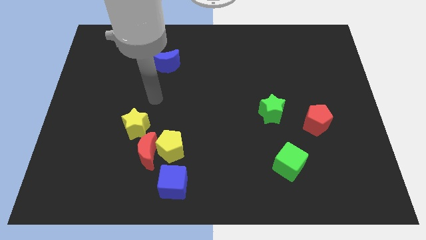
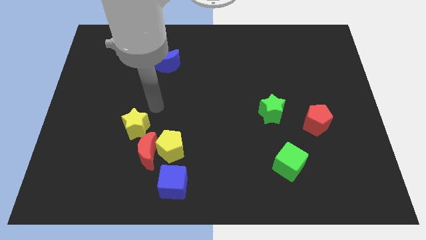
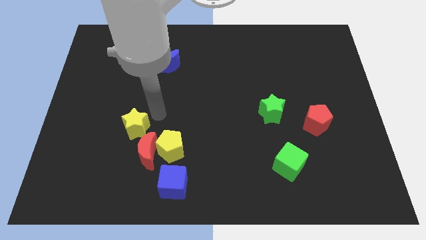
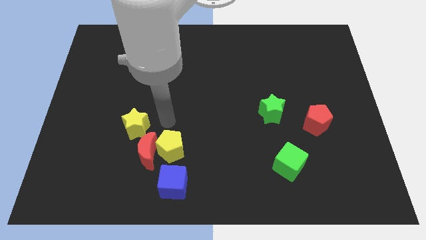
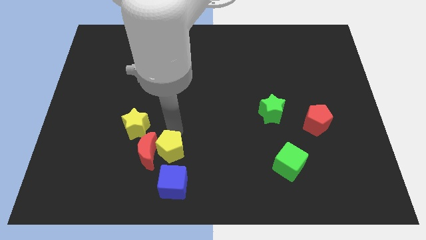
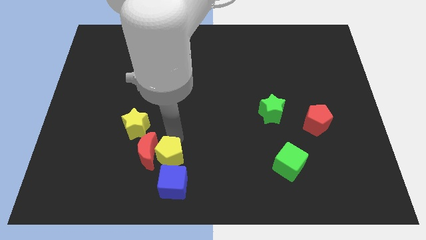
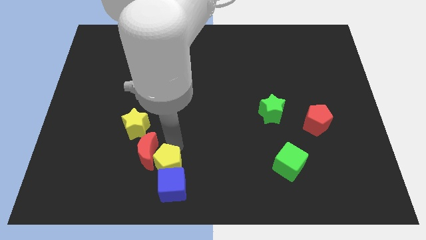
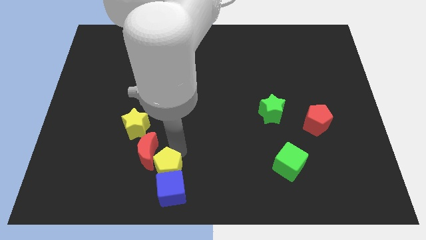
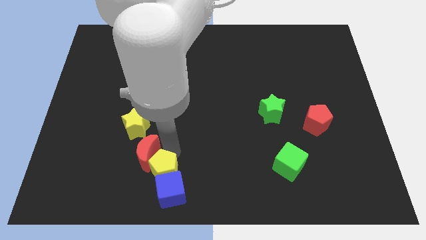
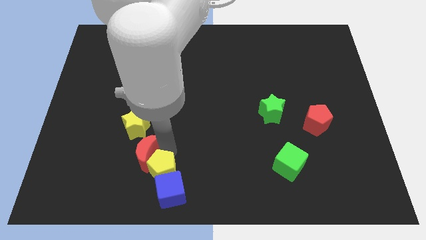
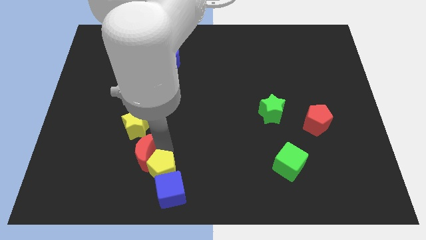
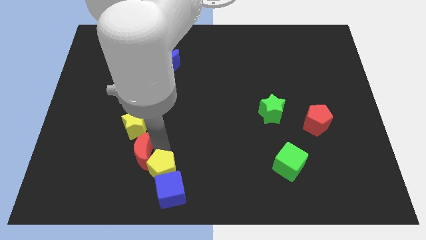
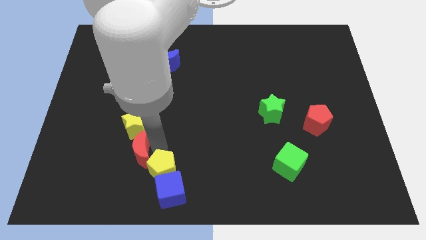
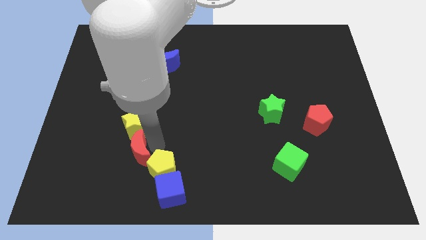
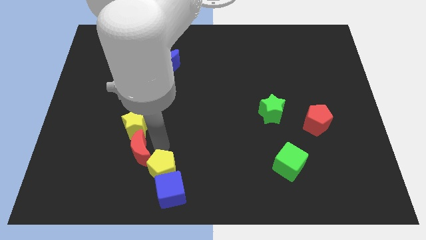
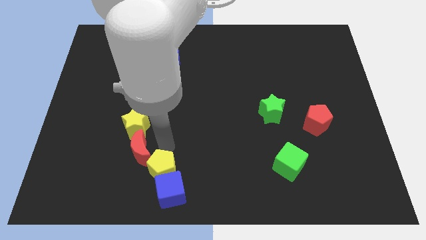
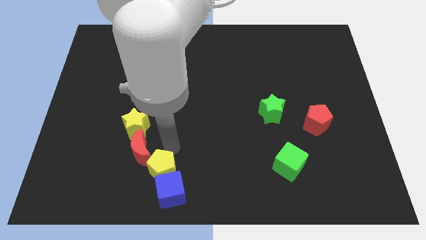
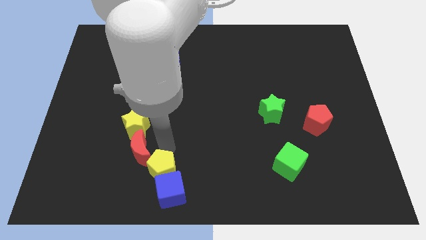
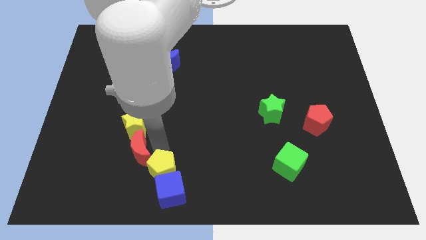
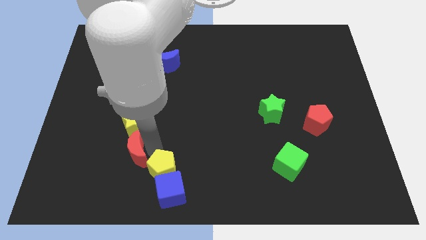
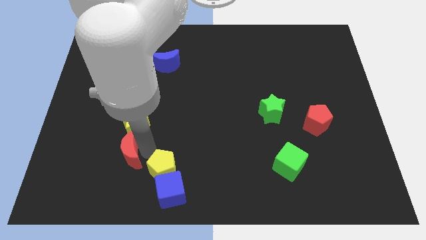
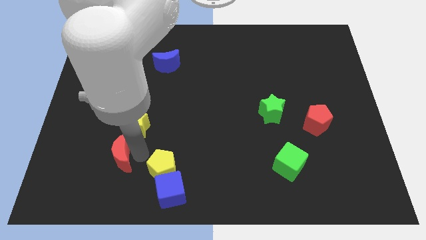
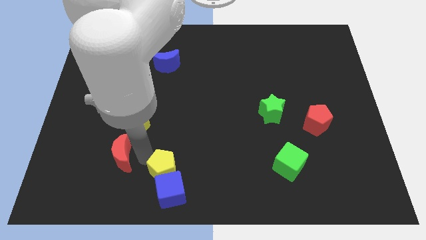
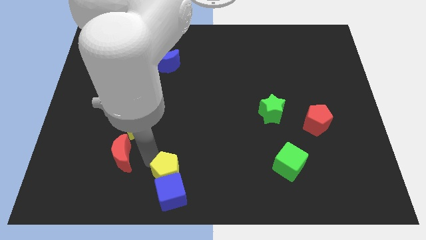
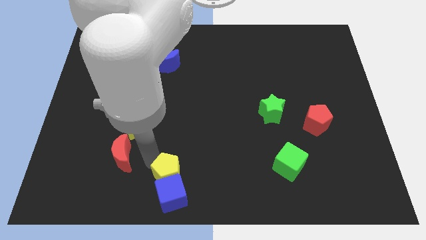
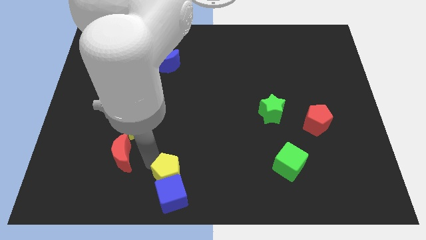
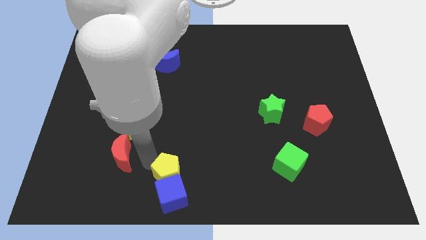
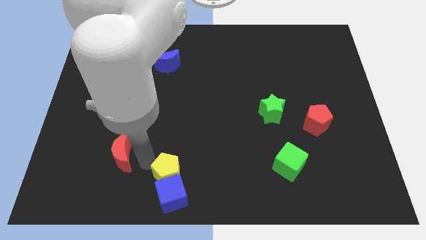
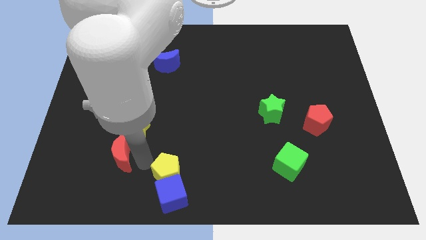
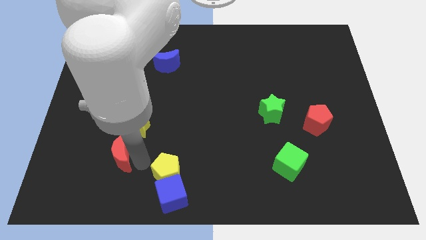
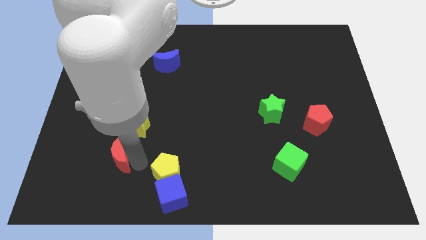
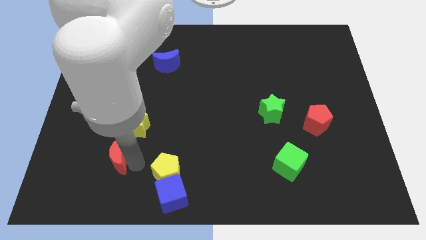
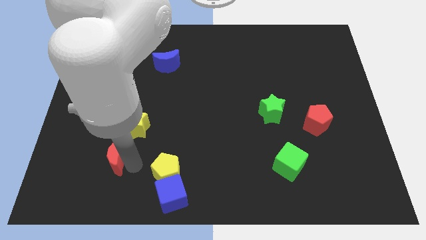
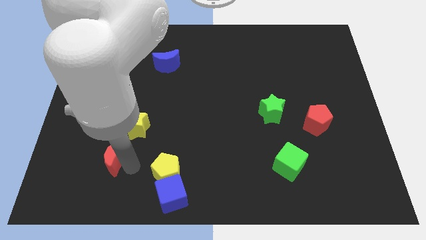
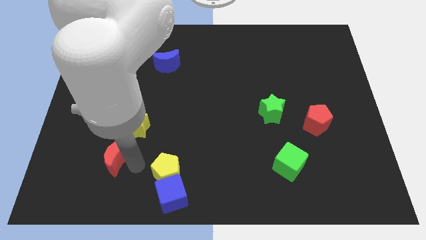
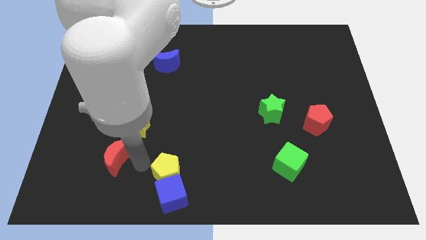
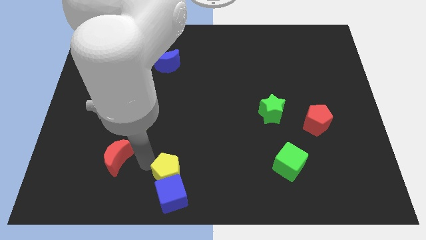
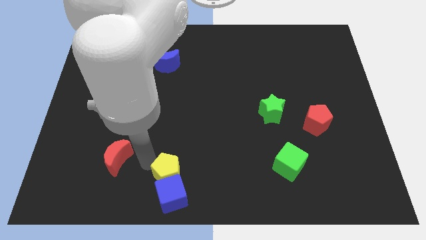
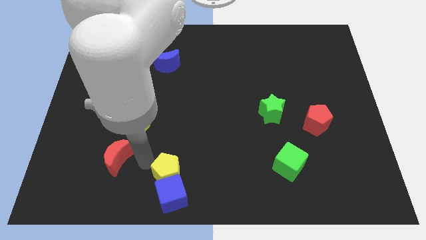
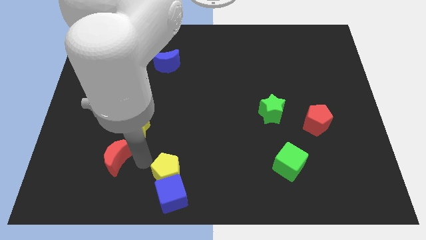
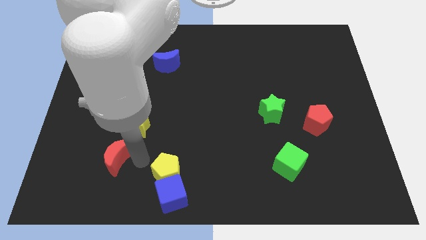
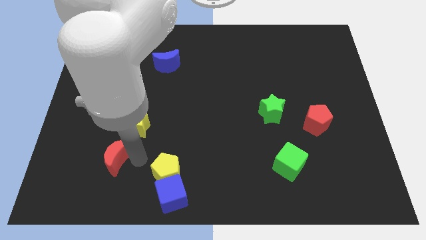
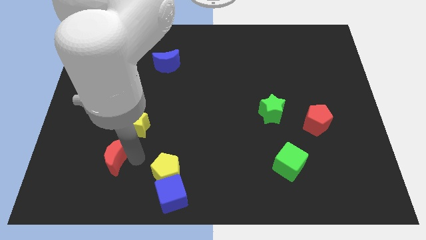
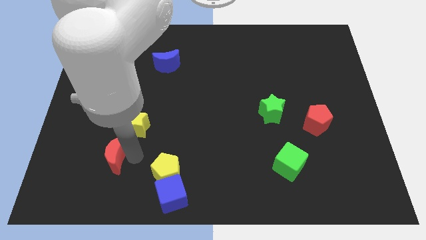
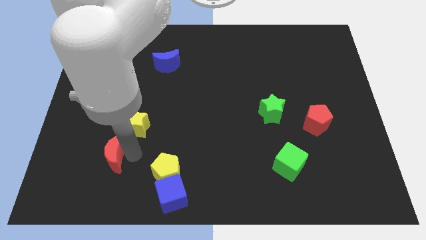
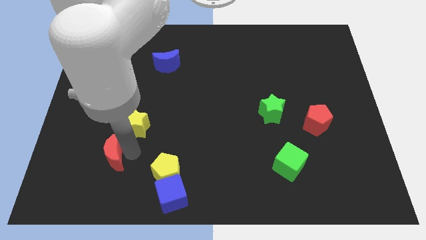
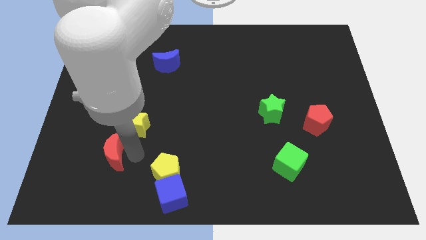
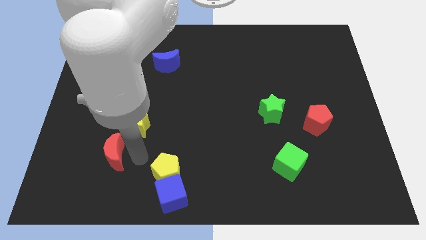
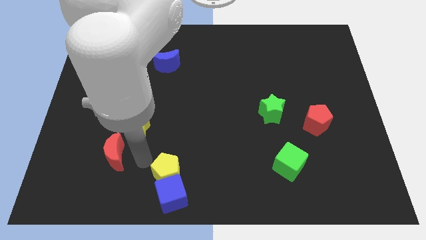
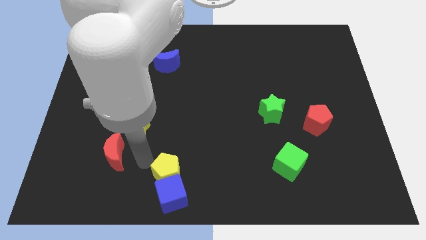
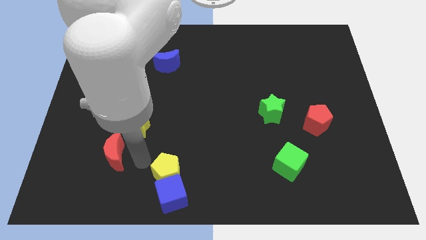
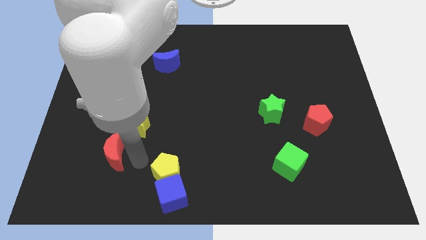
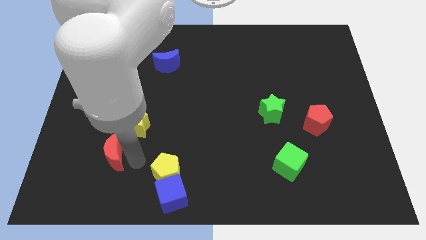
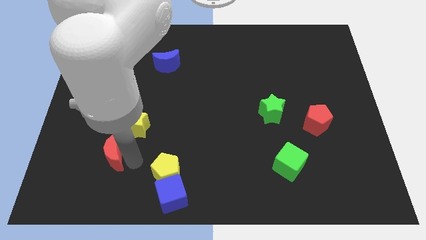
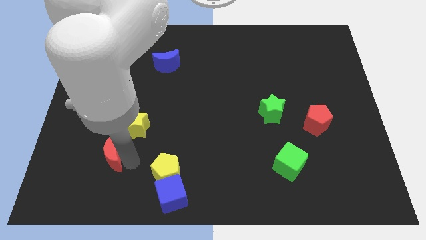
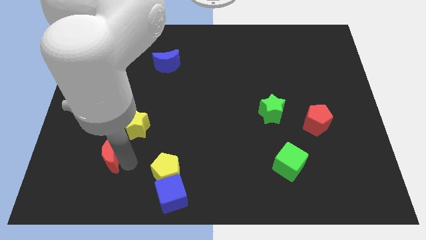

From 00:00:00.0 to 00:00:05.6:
separate the red moon from the yellow pentagon, yellow star, and blue cube

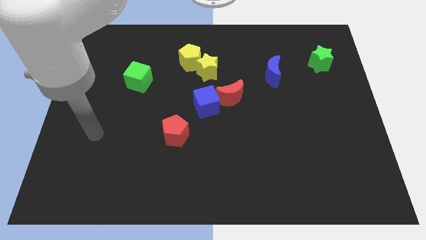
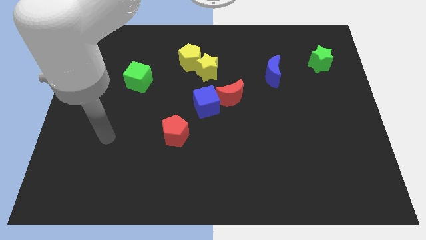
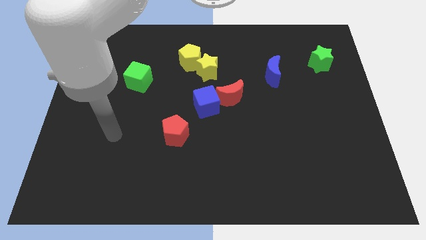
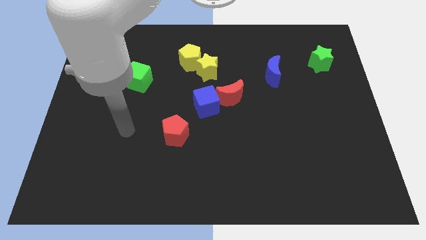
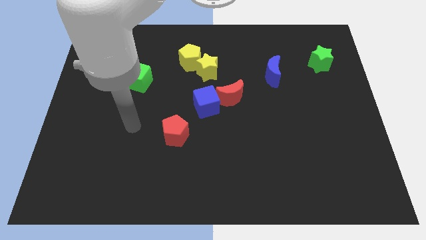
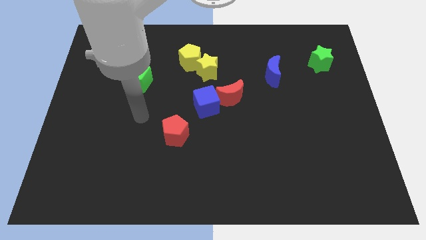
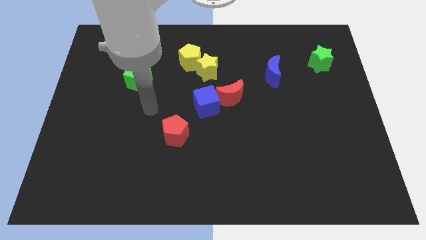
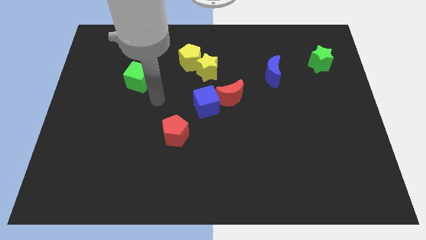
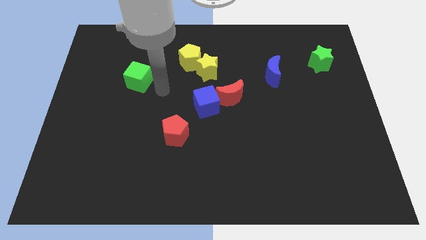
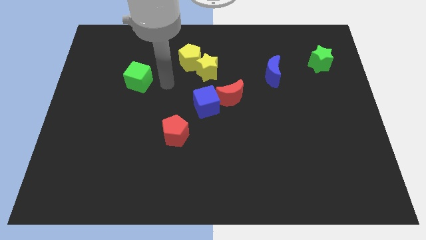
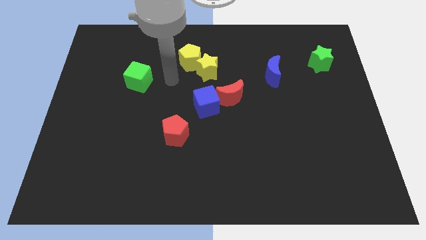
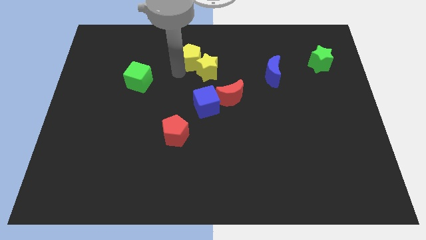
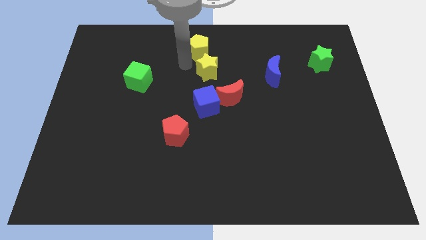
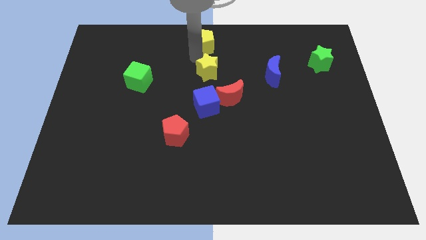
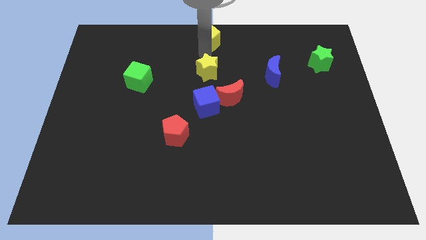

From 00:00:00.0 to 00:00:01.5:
separate the yellow star from the yellow pentagon

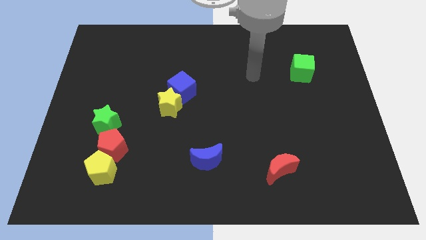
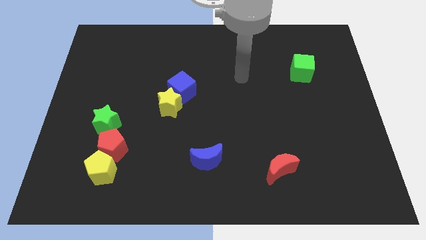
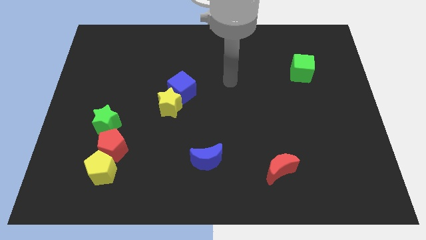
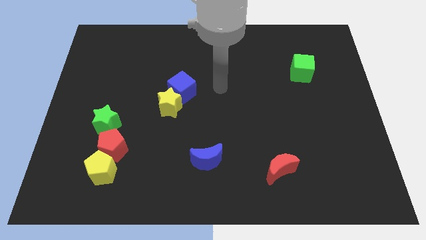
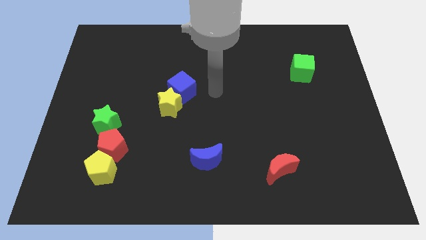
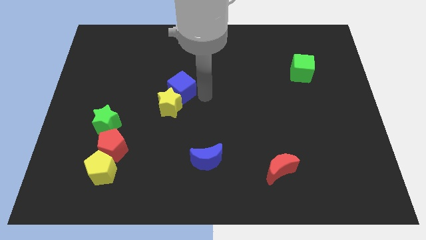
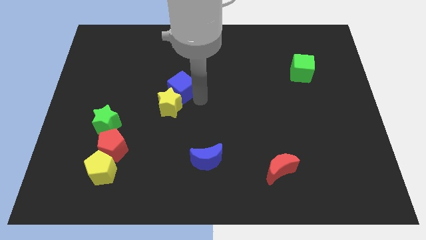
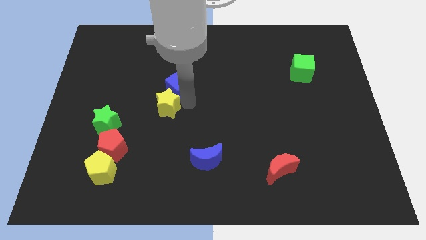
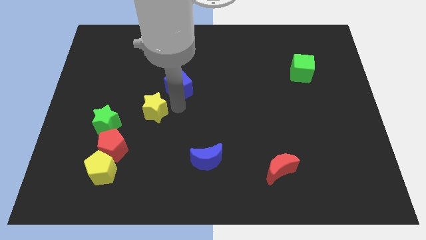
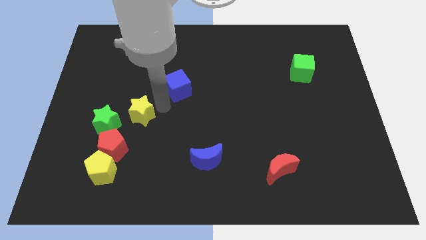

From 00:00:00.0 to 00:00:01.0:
separate the blue cube from the yellow star

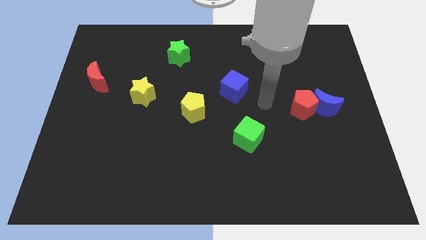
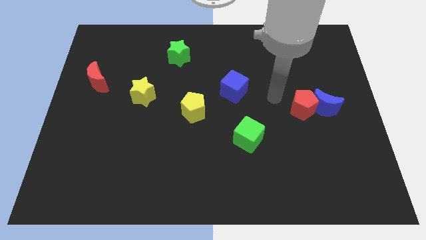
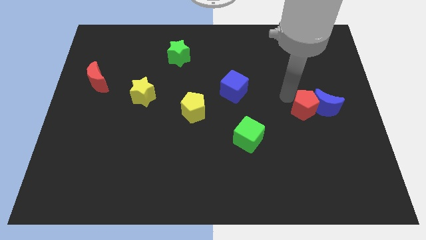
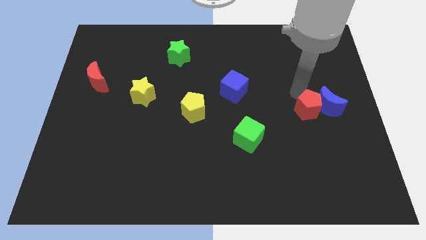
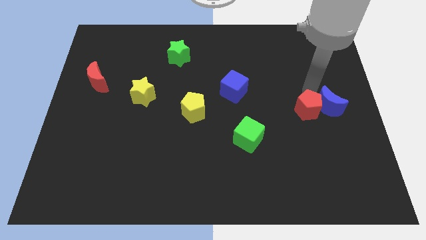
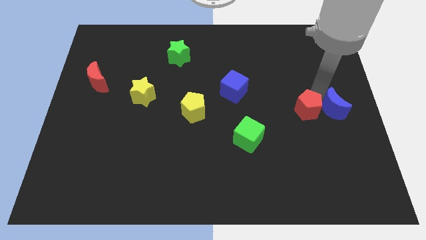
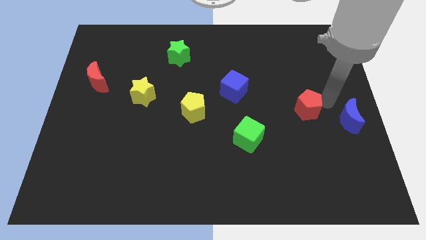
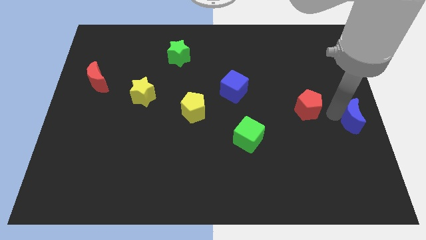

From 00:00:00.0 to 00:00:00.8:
pull the red pentagon apart from the blue moon

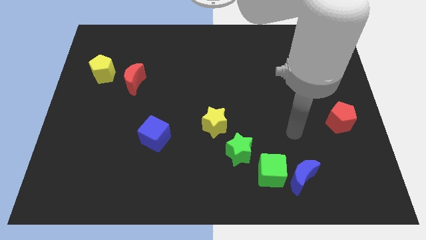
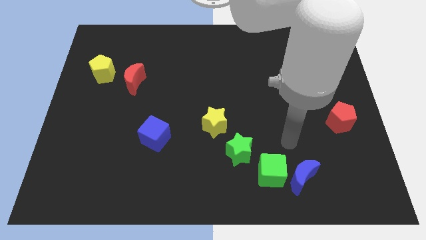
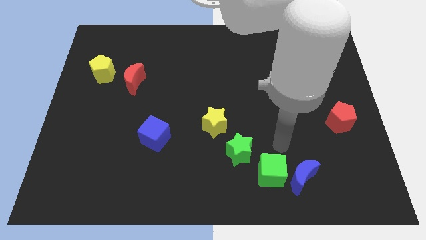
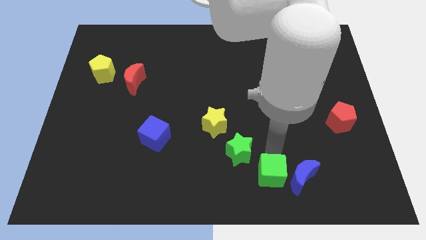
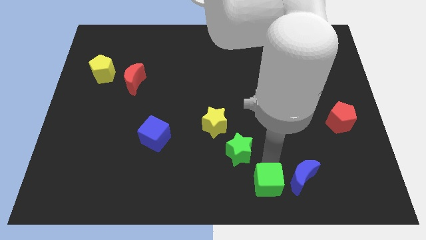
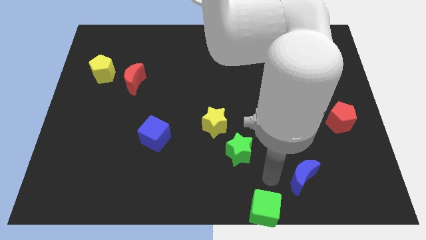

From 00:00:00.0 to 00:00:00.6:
pull the blue moon apart from the green cube

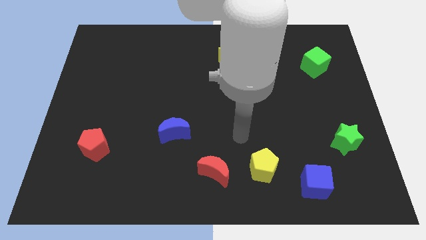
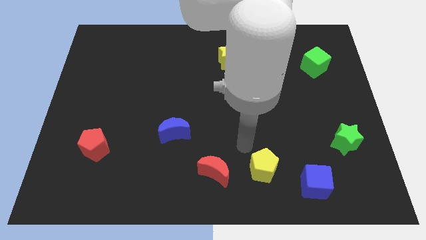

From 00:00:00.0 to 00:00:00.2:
pull the red moon apart from the yellow pentagon
